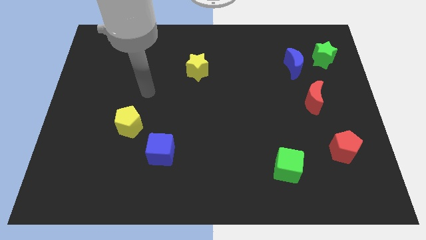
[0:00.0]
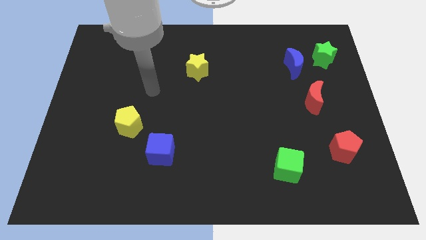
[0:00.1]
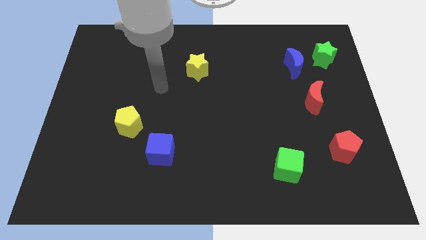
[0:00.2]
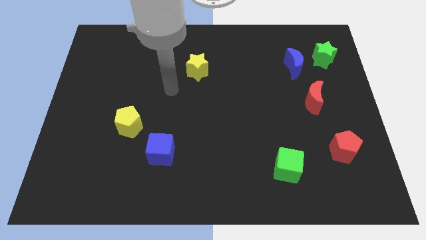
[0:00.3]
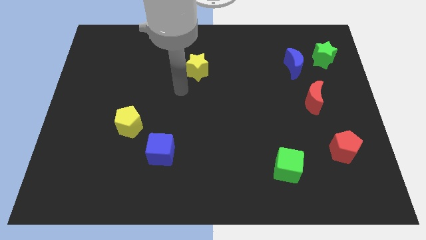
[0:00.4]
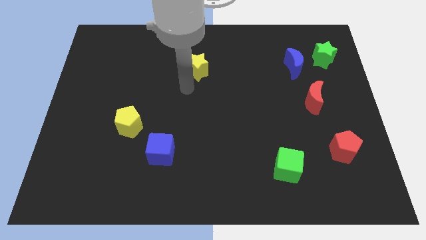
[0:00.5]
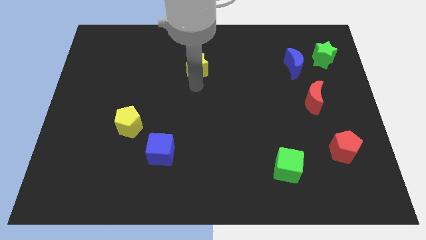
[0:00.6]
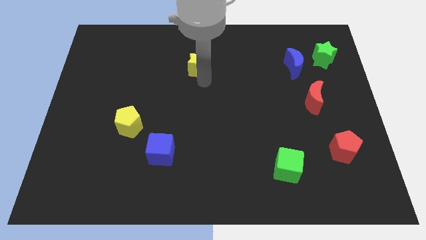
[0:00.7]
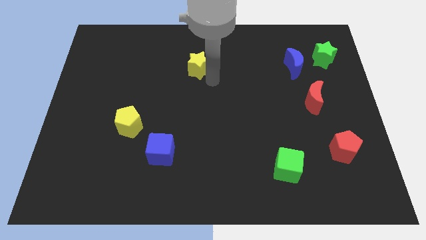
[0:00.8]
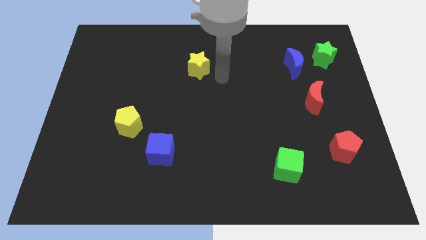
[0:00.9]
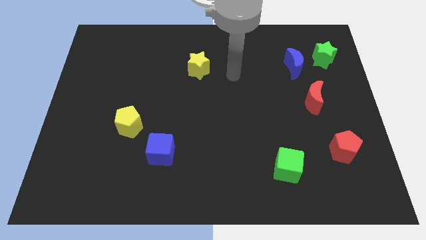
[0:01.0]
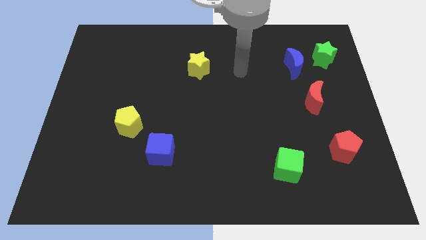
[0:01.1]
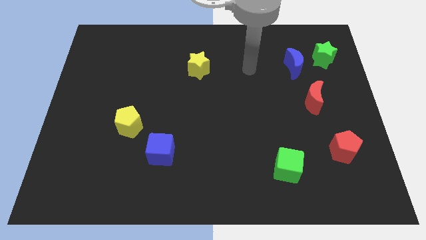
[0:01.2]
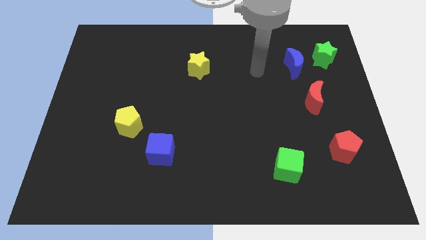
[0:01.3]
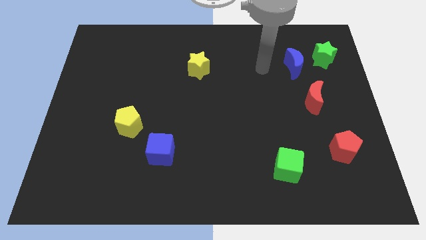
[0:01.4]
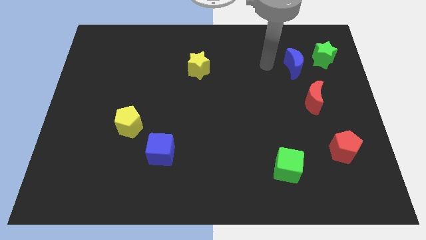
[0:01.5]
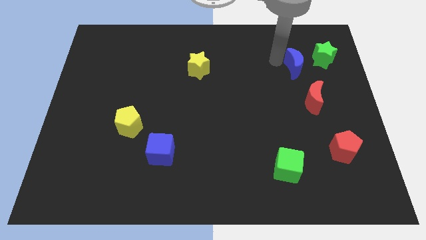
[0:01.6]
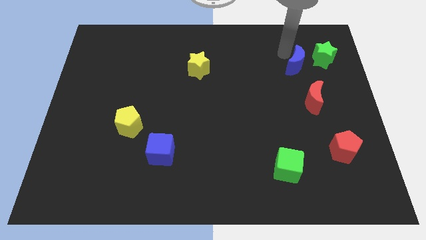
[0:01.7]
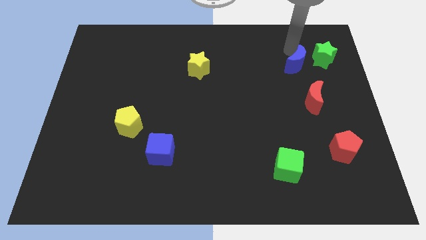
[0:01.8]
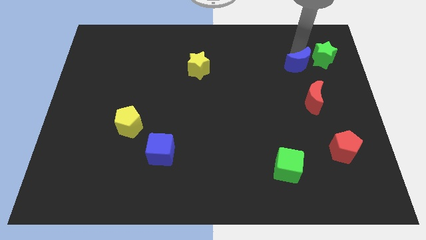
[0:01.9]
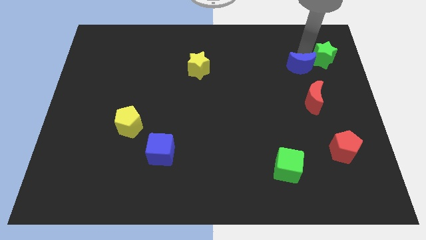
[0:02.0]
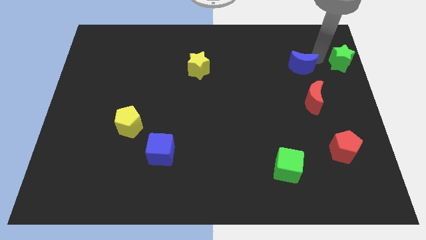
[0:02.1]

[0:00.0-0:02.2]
separate the blue moon from the green star

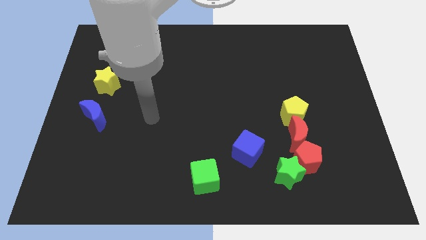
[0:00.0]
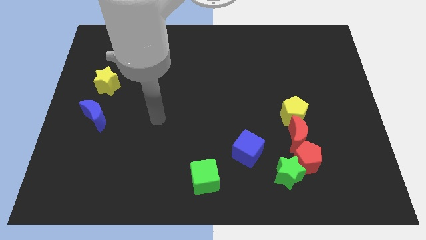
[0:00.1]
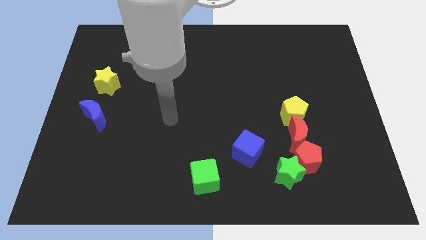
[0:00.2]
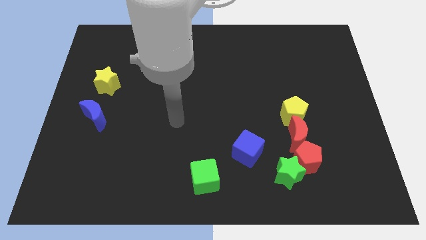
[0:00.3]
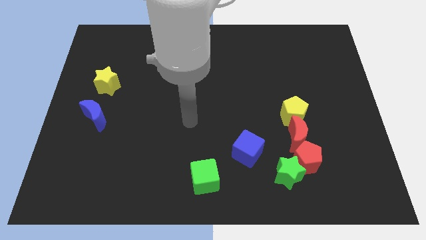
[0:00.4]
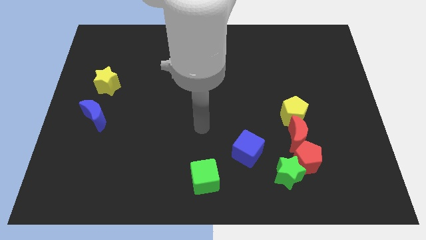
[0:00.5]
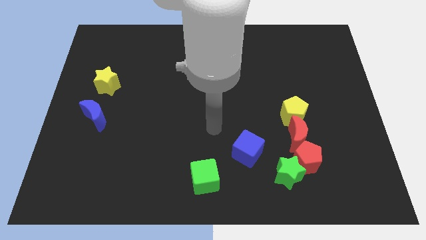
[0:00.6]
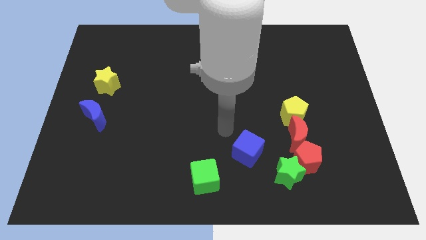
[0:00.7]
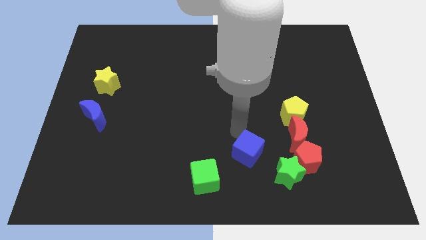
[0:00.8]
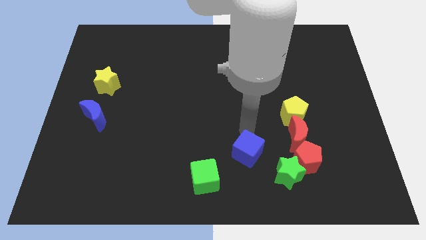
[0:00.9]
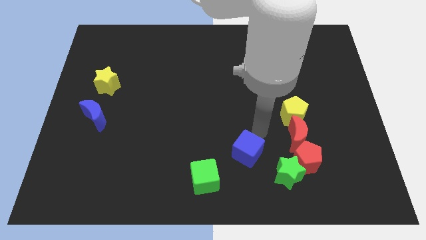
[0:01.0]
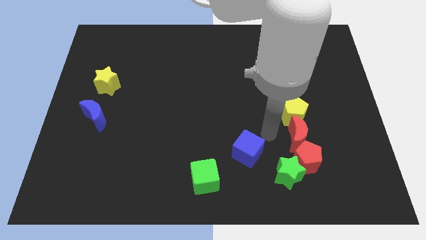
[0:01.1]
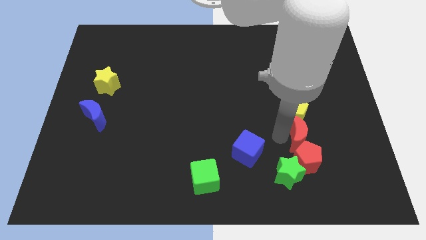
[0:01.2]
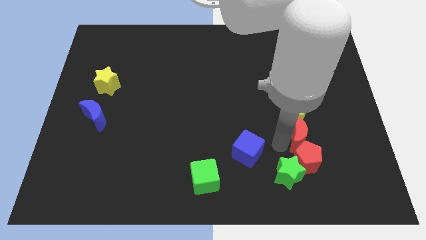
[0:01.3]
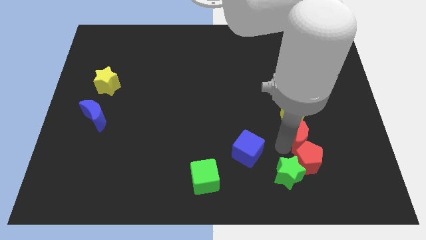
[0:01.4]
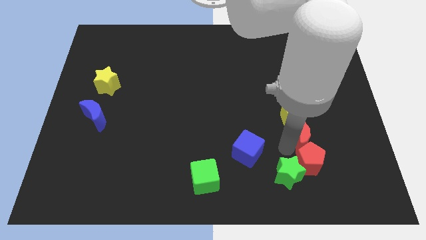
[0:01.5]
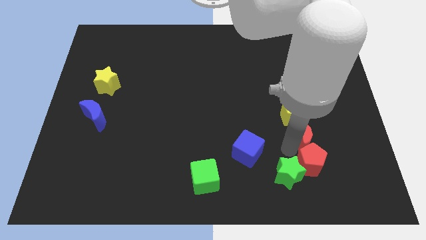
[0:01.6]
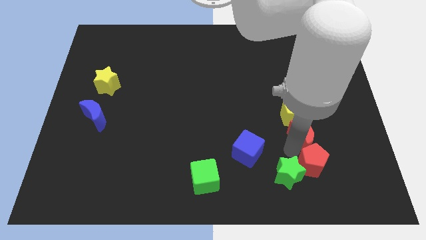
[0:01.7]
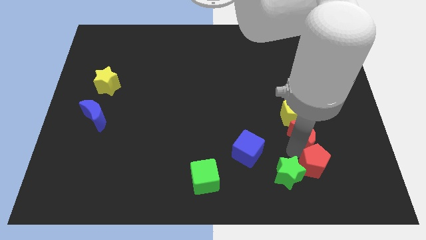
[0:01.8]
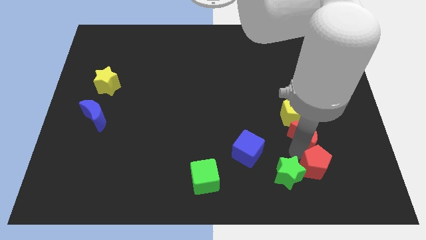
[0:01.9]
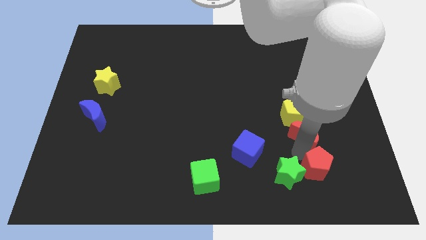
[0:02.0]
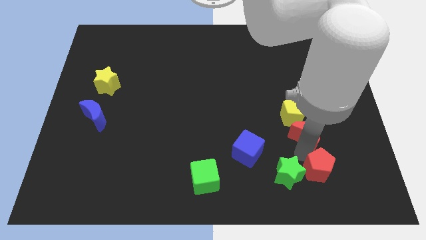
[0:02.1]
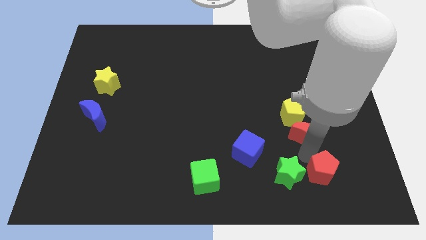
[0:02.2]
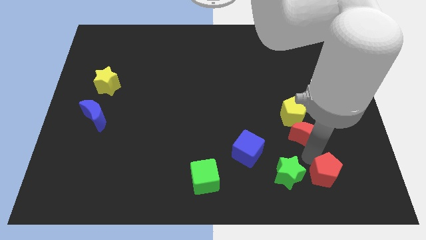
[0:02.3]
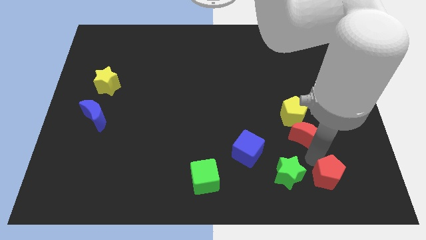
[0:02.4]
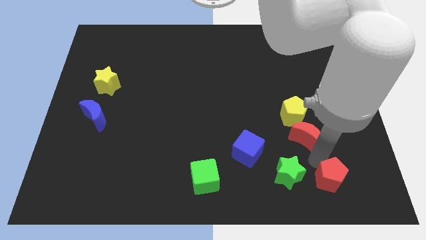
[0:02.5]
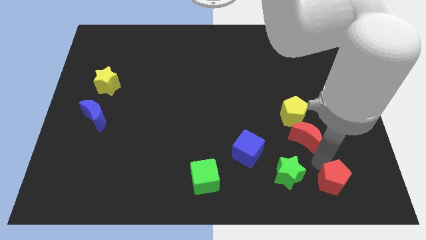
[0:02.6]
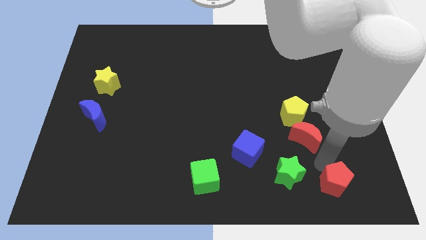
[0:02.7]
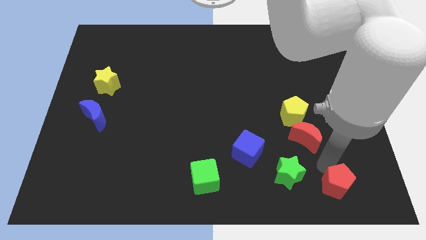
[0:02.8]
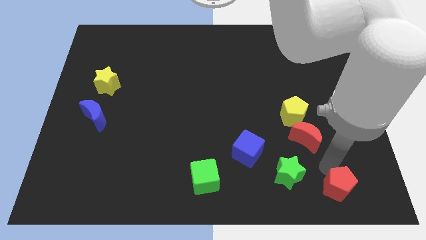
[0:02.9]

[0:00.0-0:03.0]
separate the red pentagon from the green star and red moon

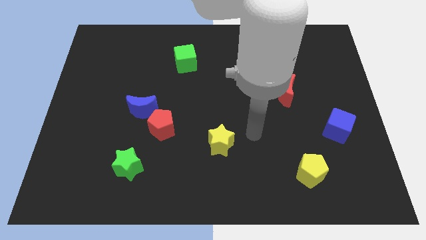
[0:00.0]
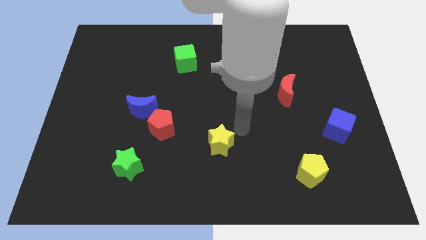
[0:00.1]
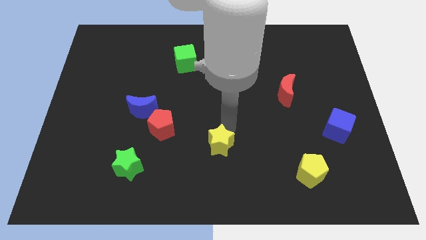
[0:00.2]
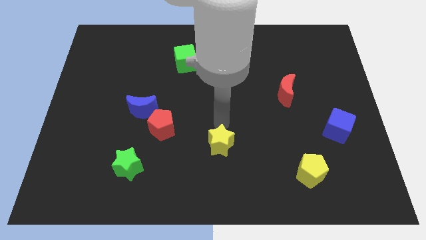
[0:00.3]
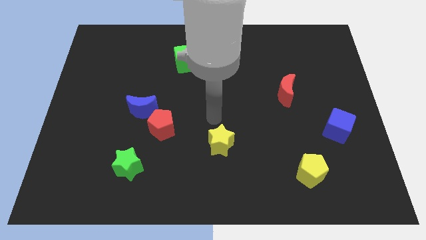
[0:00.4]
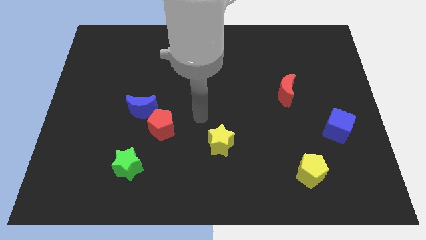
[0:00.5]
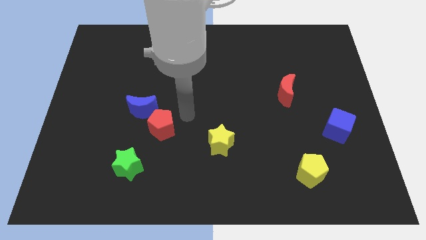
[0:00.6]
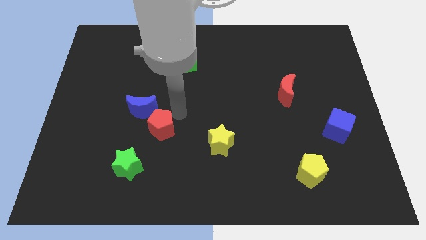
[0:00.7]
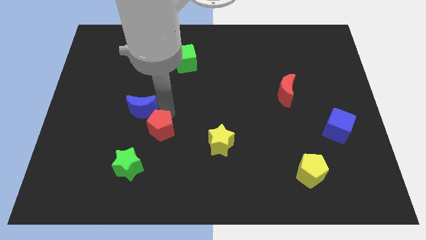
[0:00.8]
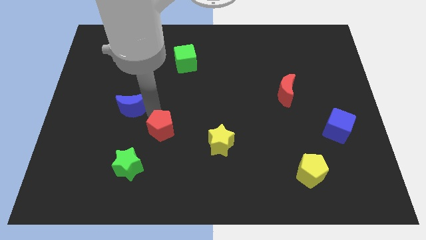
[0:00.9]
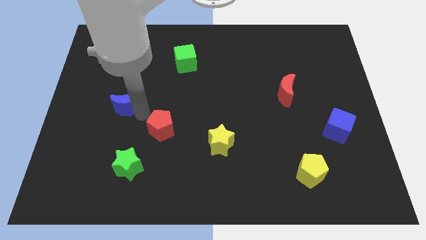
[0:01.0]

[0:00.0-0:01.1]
separate the red pentagon from the blue moon

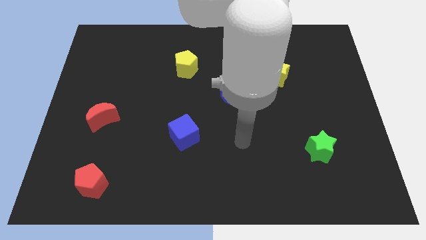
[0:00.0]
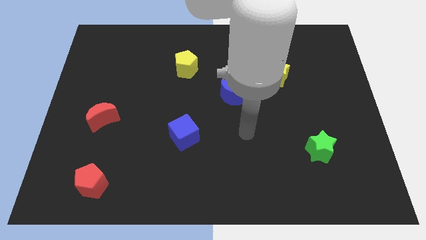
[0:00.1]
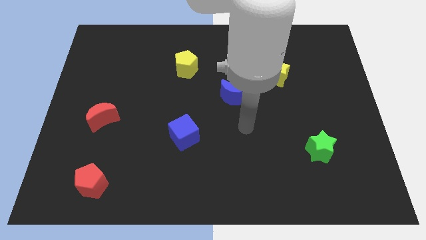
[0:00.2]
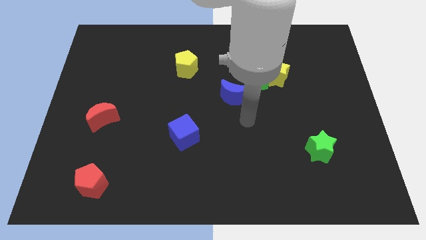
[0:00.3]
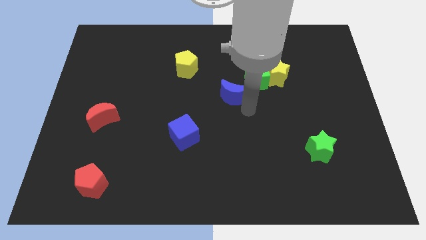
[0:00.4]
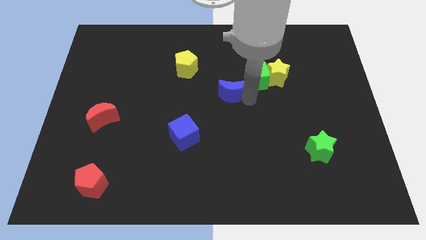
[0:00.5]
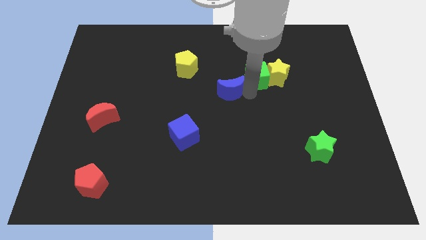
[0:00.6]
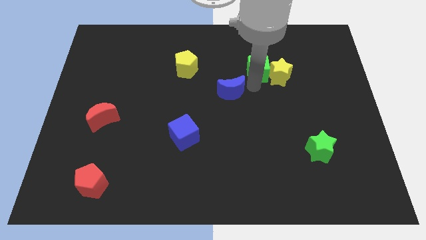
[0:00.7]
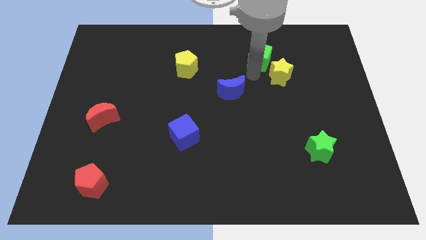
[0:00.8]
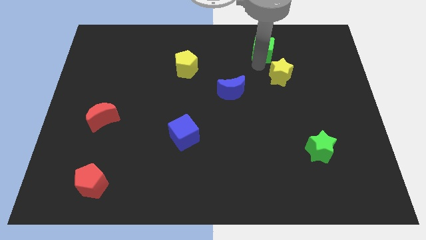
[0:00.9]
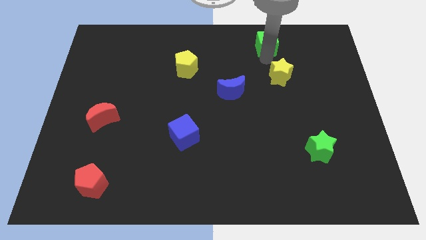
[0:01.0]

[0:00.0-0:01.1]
separate the yellow star from the green cube

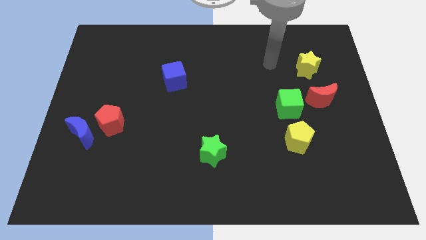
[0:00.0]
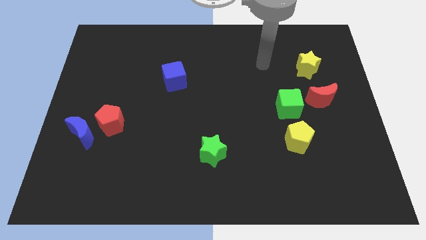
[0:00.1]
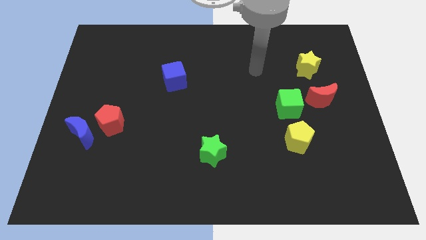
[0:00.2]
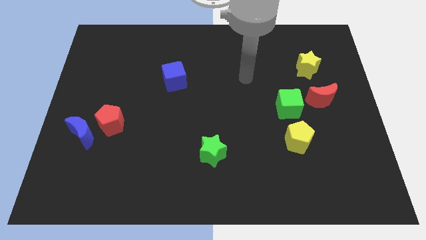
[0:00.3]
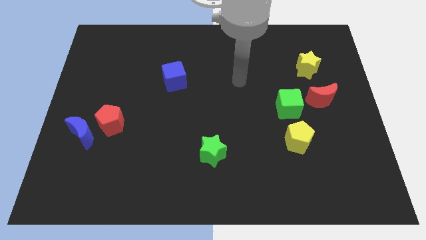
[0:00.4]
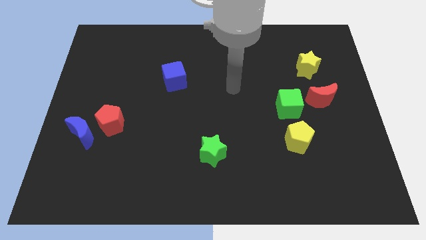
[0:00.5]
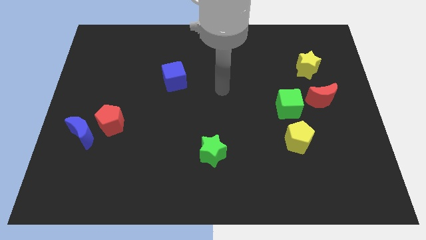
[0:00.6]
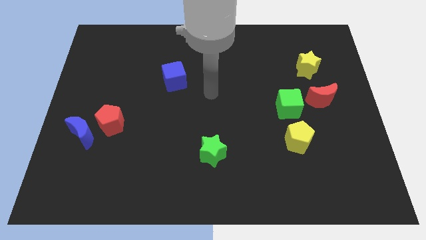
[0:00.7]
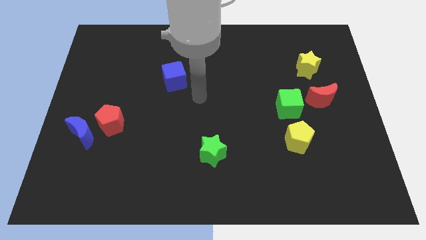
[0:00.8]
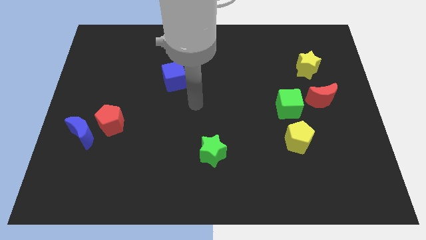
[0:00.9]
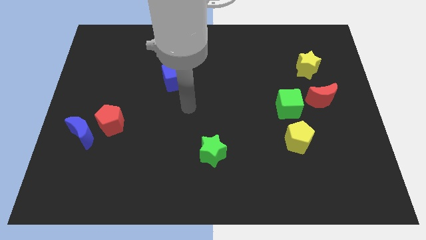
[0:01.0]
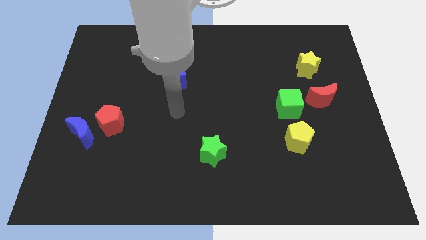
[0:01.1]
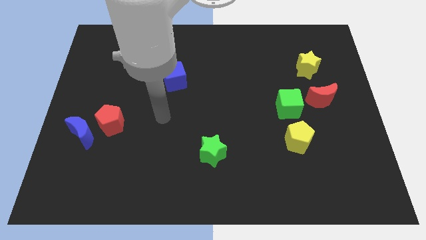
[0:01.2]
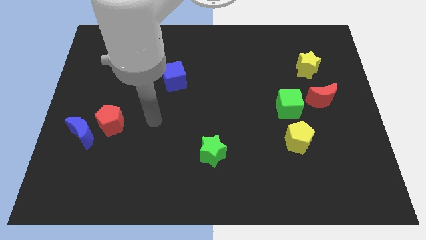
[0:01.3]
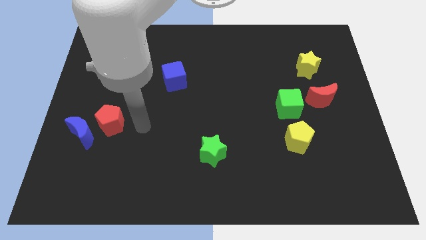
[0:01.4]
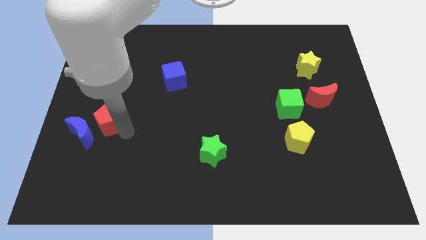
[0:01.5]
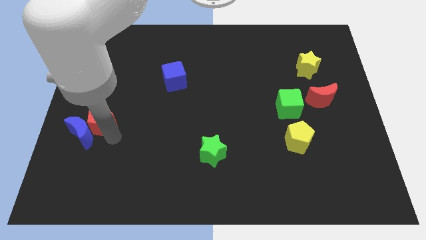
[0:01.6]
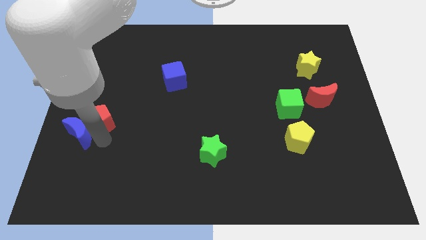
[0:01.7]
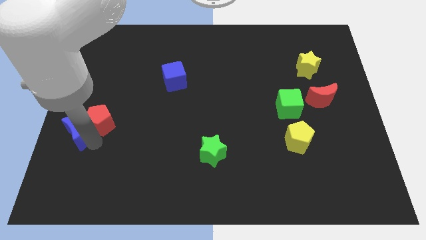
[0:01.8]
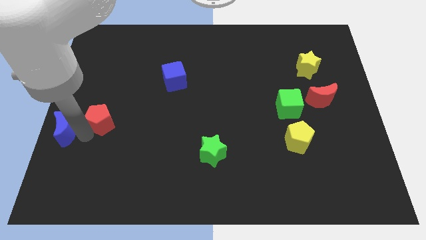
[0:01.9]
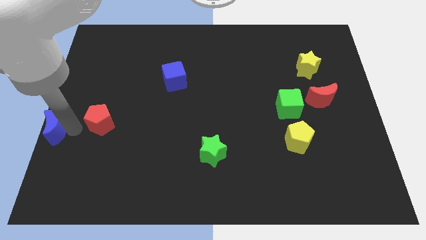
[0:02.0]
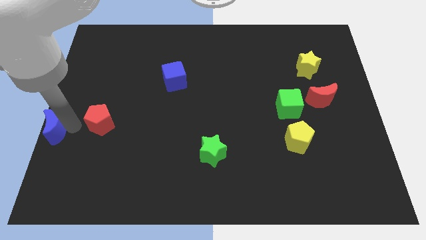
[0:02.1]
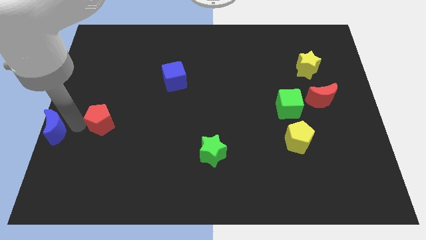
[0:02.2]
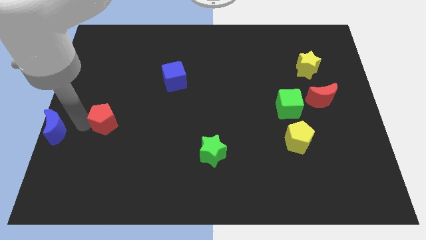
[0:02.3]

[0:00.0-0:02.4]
pull the red pentagon apart from the blue moon
